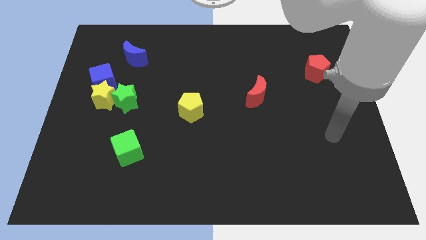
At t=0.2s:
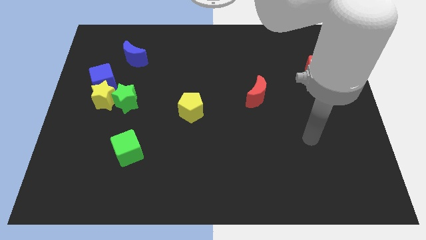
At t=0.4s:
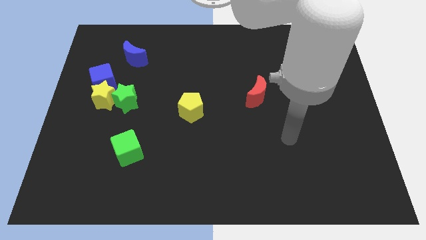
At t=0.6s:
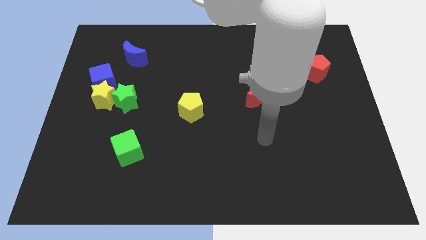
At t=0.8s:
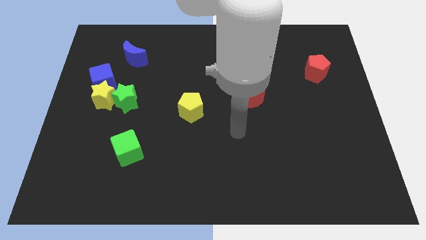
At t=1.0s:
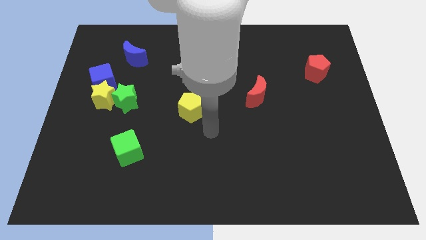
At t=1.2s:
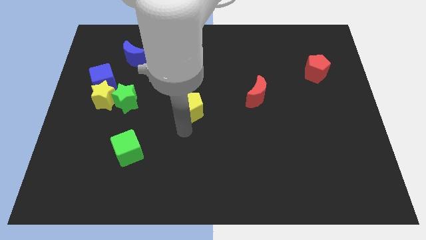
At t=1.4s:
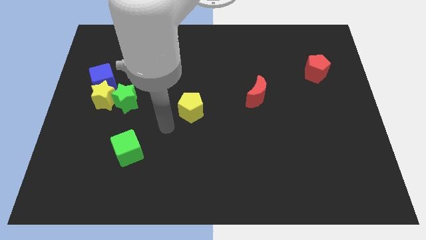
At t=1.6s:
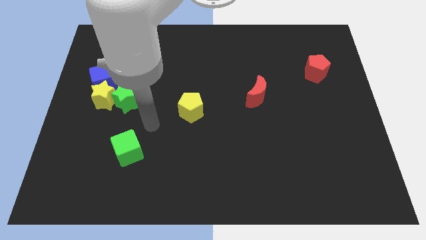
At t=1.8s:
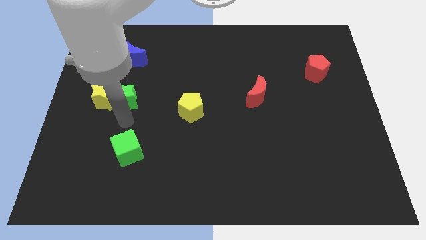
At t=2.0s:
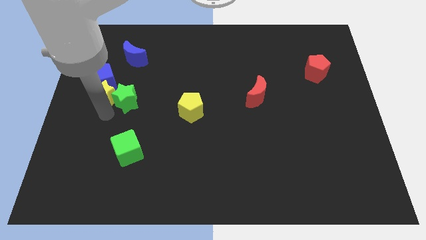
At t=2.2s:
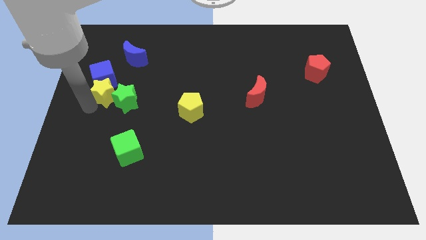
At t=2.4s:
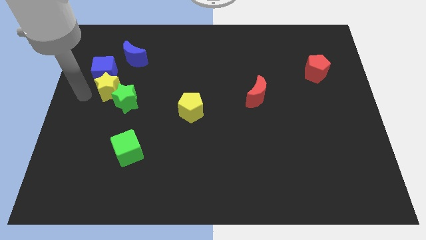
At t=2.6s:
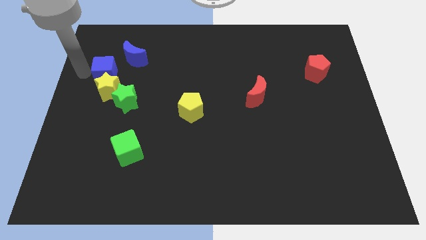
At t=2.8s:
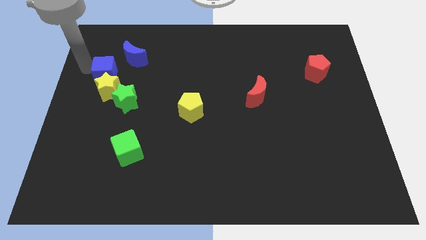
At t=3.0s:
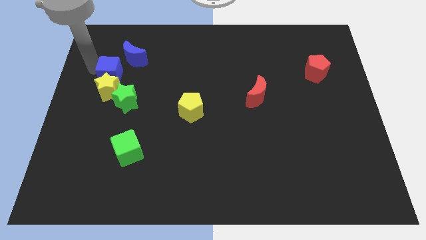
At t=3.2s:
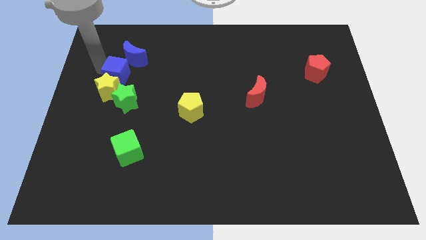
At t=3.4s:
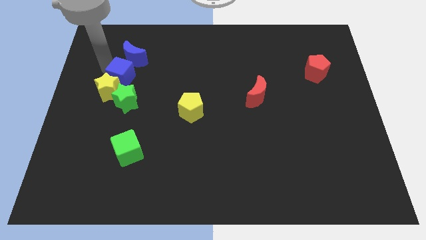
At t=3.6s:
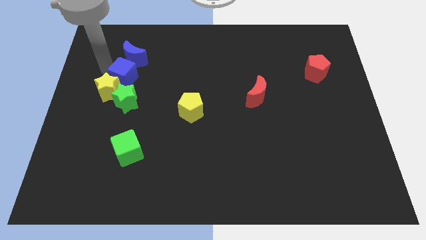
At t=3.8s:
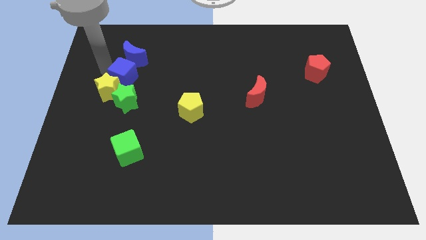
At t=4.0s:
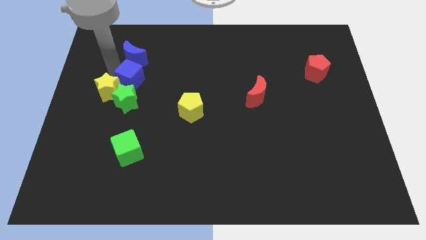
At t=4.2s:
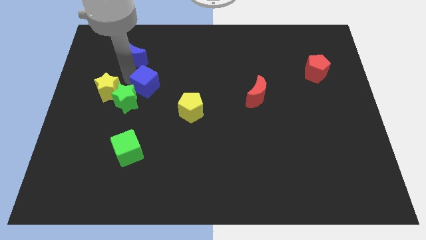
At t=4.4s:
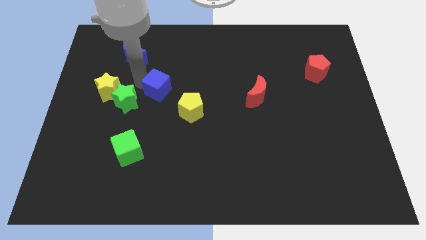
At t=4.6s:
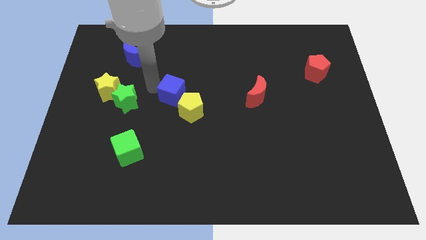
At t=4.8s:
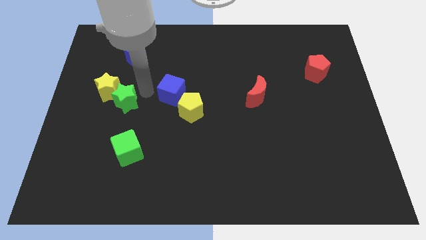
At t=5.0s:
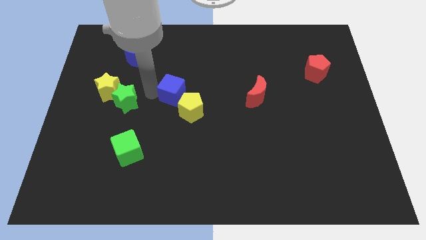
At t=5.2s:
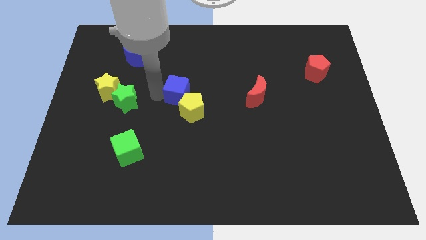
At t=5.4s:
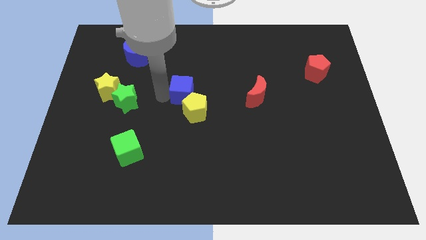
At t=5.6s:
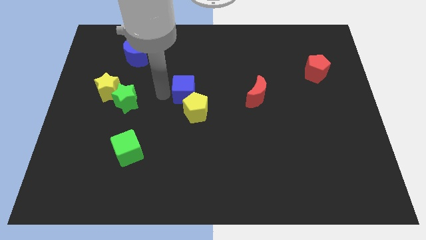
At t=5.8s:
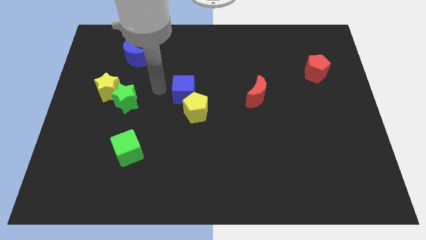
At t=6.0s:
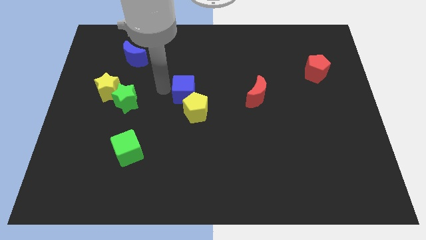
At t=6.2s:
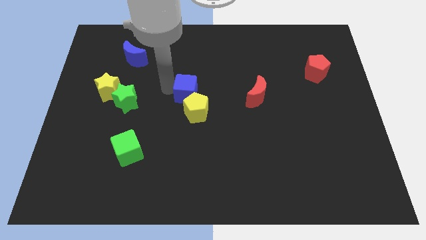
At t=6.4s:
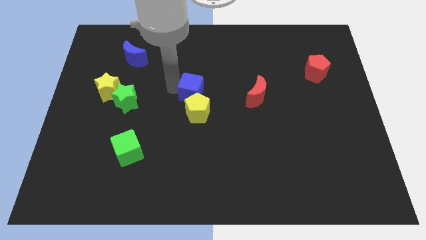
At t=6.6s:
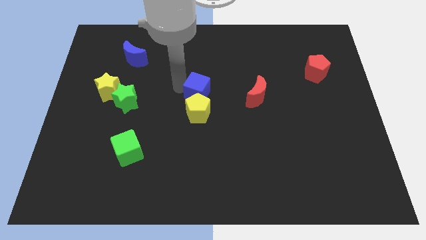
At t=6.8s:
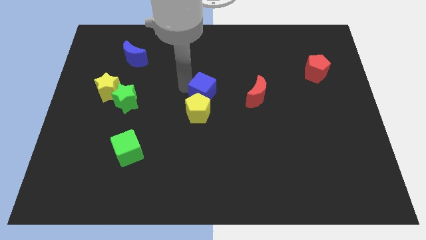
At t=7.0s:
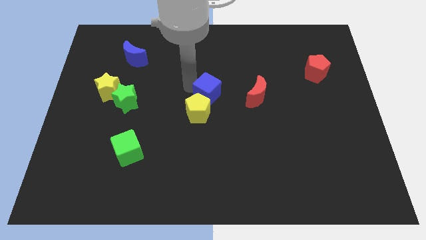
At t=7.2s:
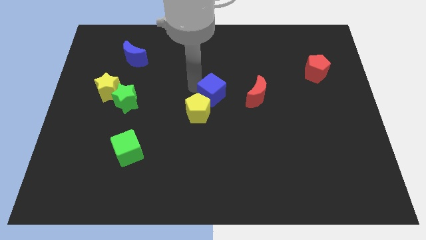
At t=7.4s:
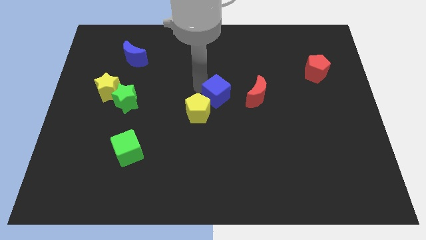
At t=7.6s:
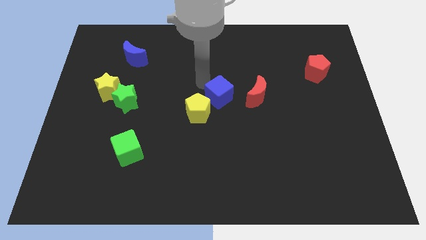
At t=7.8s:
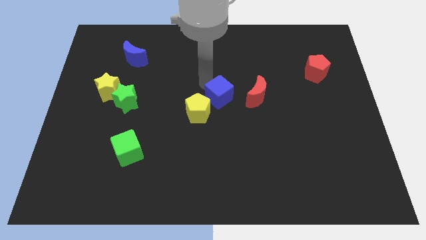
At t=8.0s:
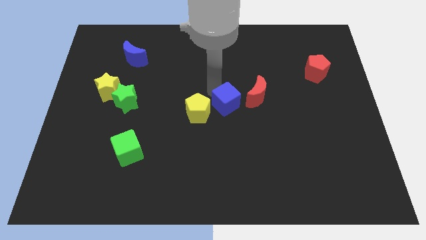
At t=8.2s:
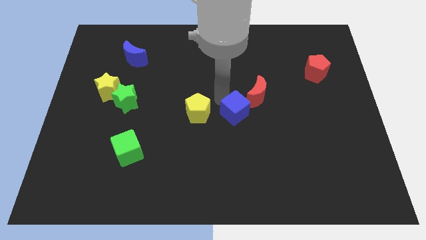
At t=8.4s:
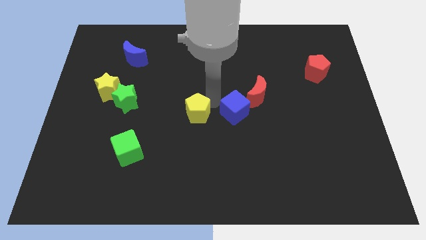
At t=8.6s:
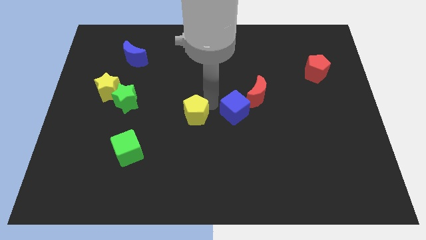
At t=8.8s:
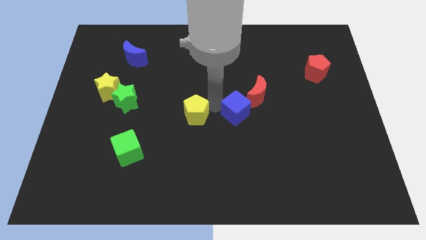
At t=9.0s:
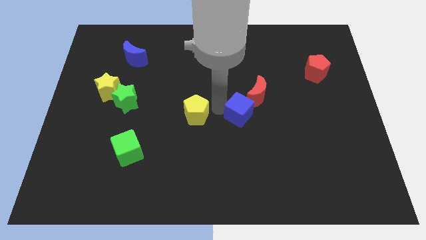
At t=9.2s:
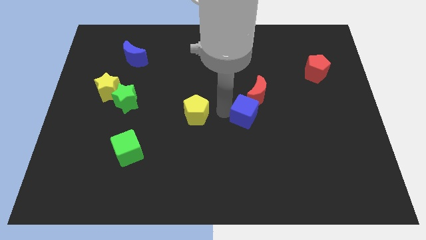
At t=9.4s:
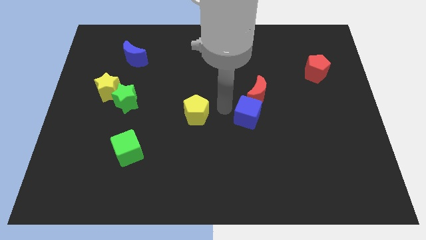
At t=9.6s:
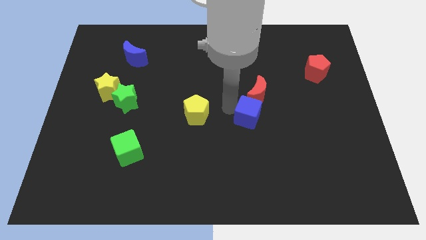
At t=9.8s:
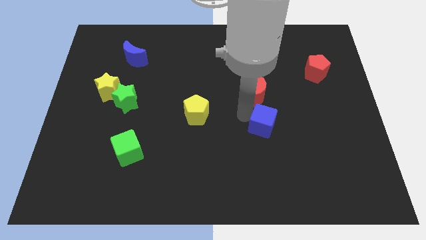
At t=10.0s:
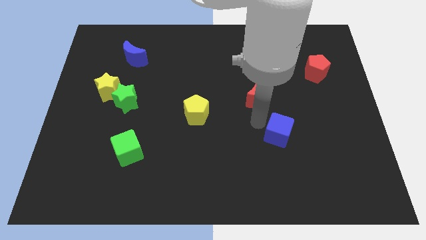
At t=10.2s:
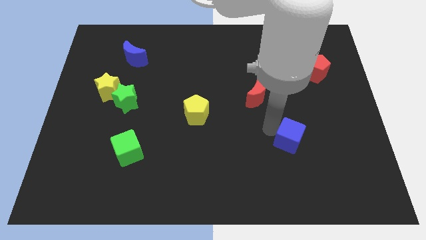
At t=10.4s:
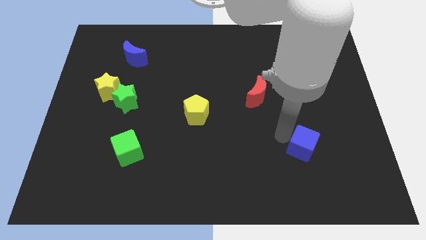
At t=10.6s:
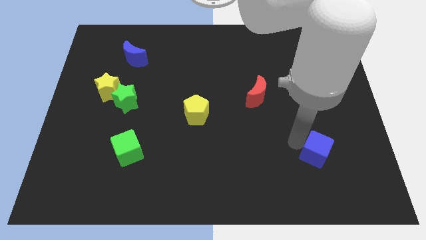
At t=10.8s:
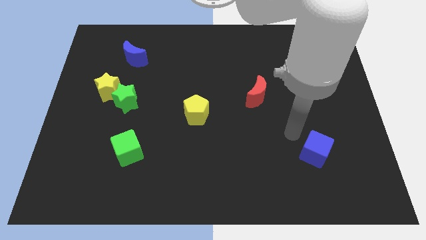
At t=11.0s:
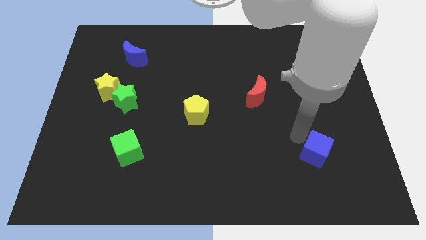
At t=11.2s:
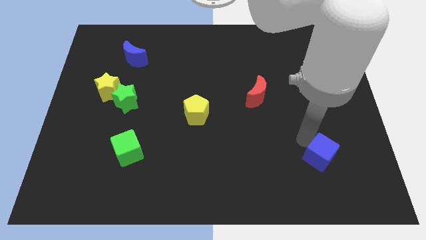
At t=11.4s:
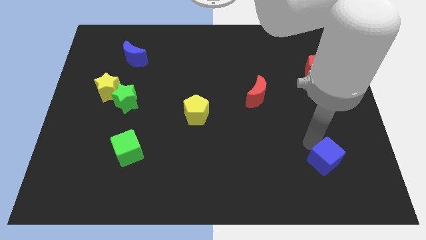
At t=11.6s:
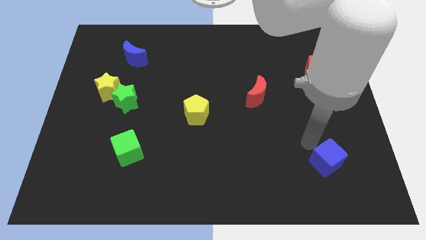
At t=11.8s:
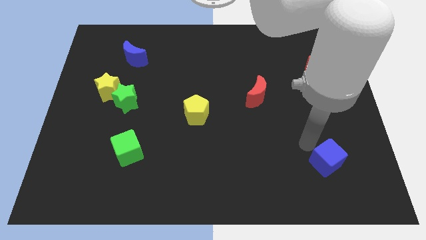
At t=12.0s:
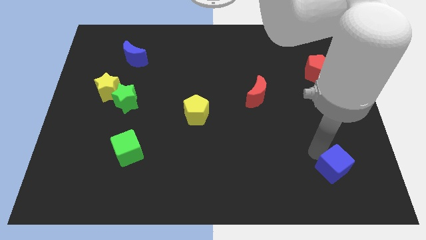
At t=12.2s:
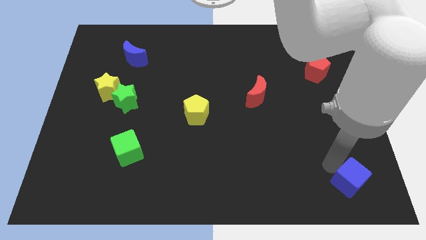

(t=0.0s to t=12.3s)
put the blue cube to the bottom right
